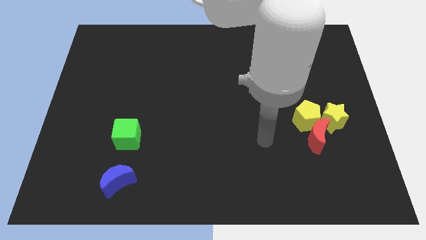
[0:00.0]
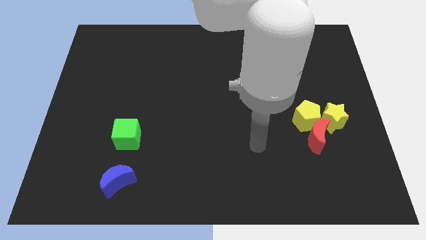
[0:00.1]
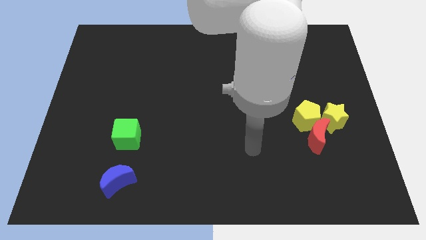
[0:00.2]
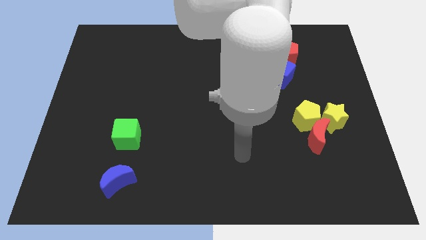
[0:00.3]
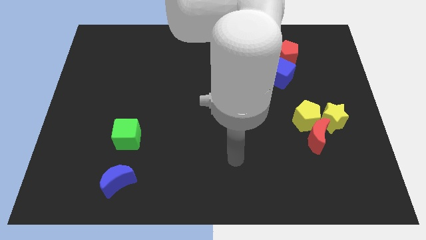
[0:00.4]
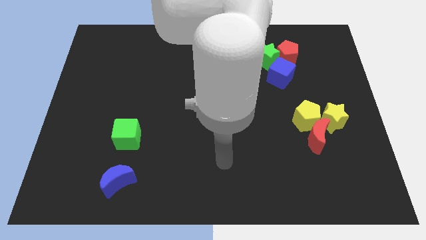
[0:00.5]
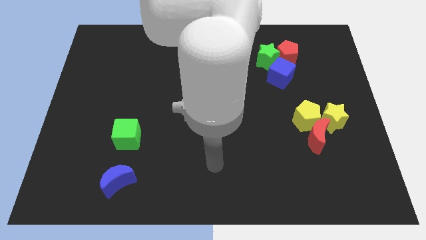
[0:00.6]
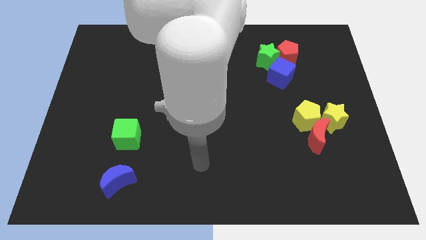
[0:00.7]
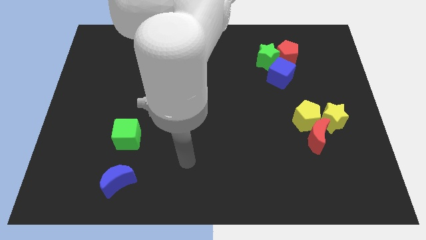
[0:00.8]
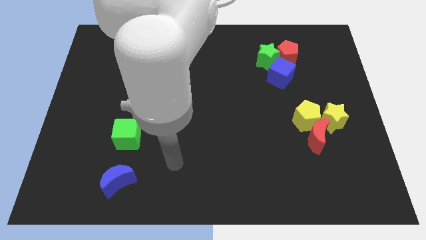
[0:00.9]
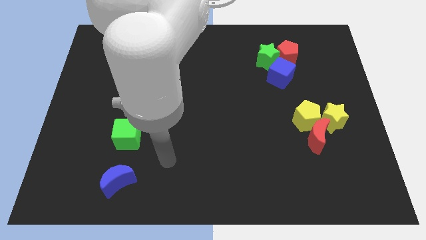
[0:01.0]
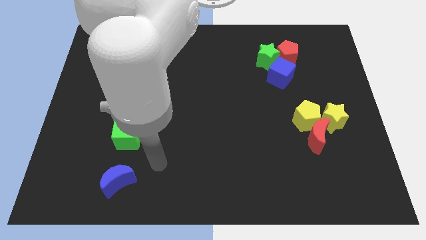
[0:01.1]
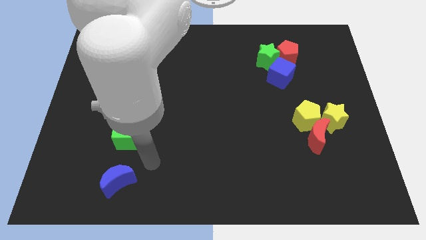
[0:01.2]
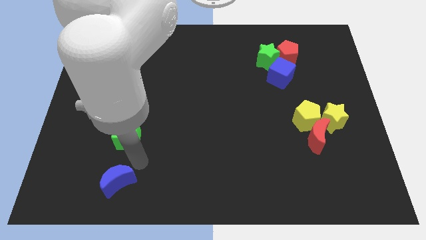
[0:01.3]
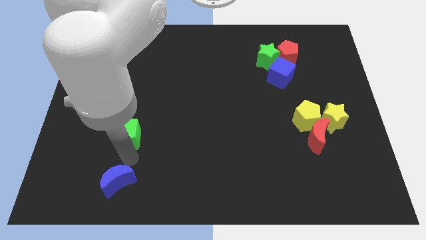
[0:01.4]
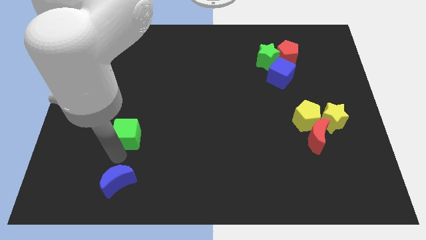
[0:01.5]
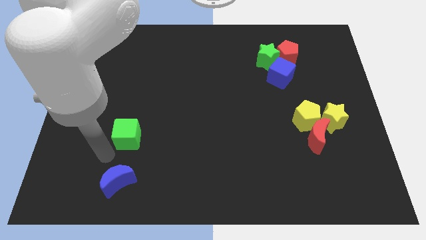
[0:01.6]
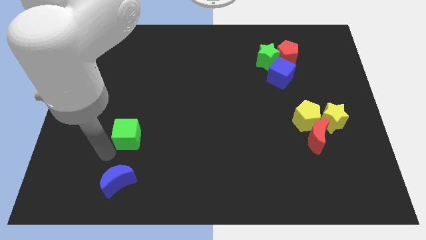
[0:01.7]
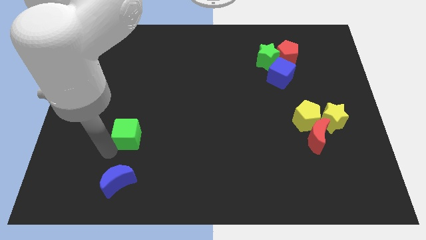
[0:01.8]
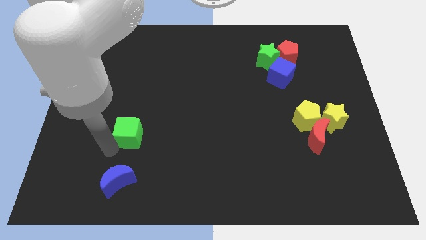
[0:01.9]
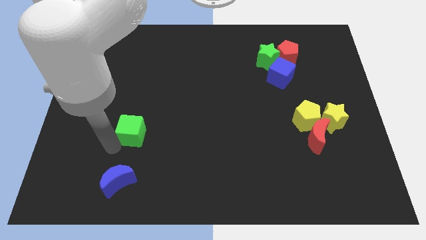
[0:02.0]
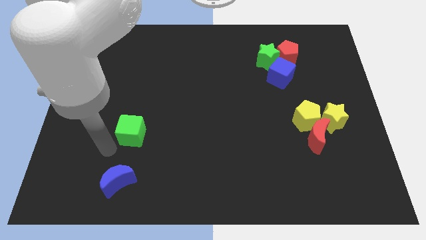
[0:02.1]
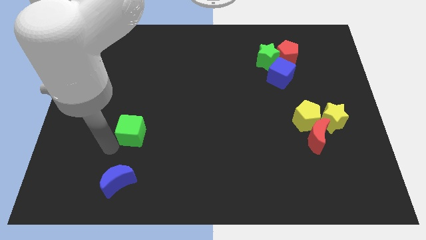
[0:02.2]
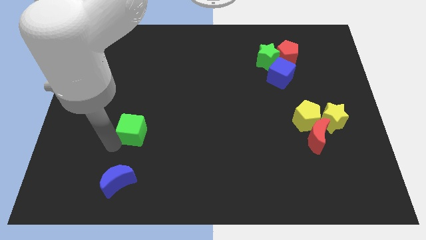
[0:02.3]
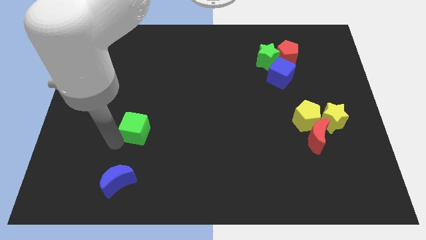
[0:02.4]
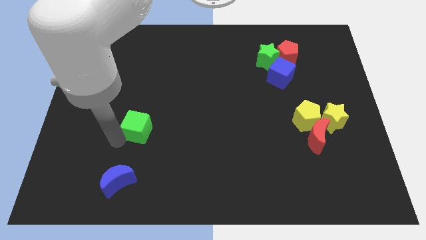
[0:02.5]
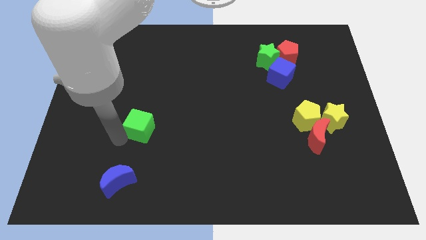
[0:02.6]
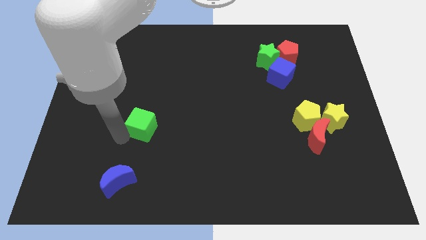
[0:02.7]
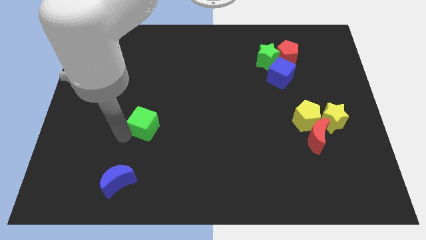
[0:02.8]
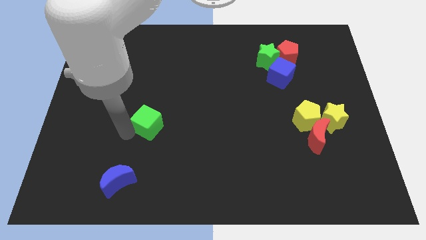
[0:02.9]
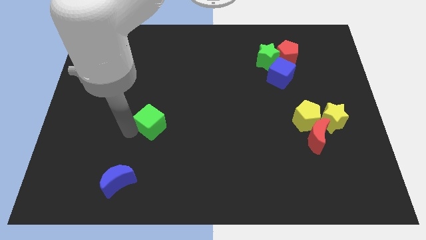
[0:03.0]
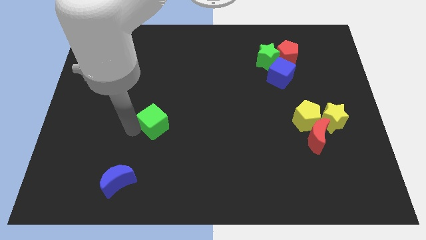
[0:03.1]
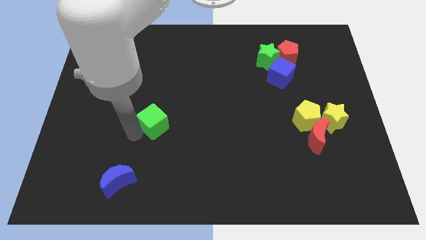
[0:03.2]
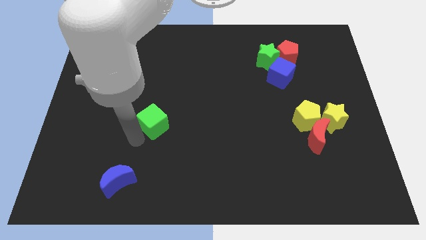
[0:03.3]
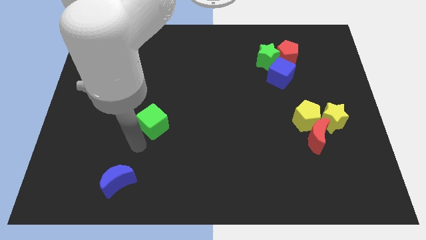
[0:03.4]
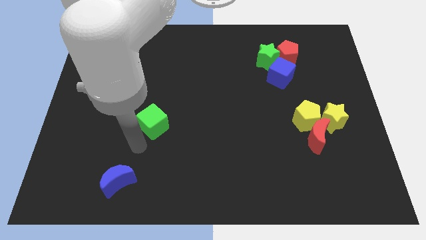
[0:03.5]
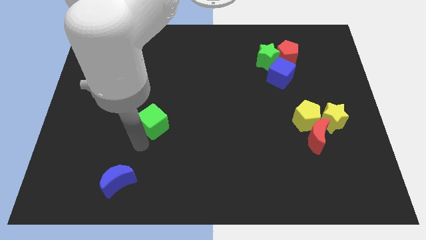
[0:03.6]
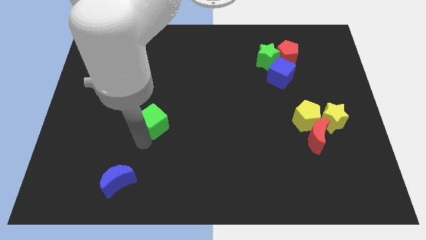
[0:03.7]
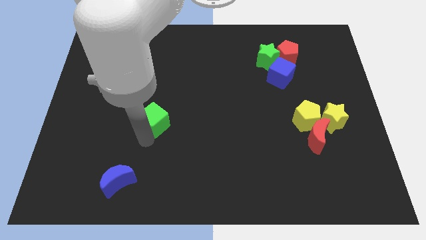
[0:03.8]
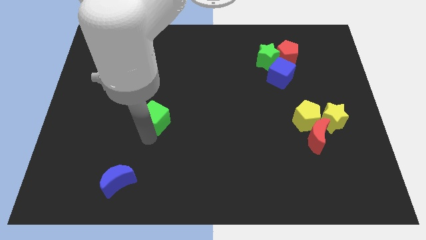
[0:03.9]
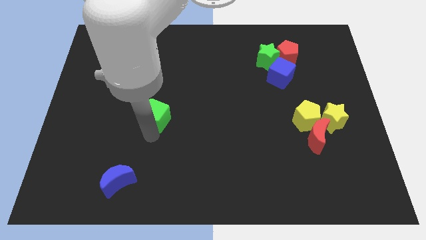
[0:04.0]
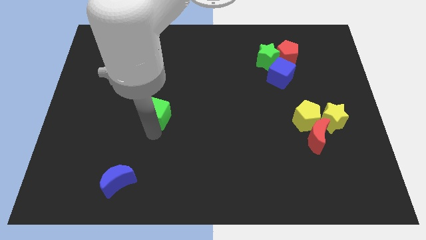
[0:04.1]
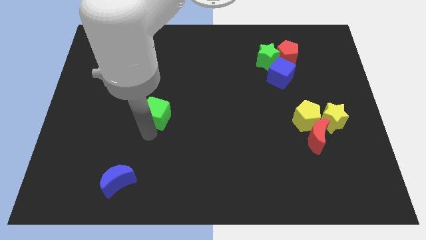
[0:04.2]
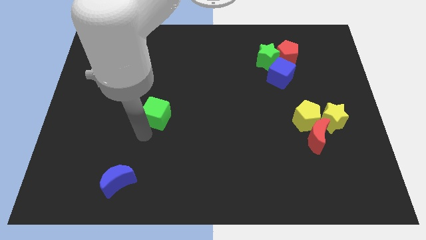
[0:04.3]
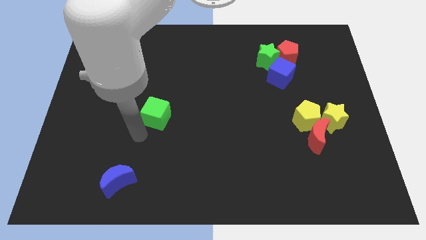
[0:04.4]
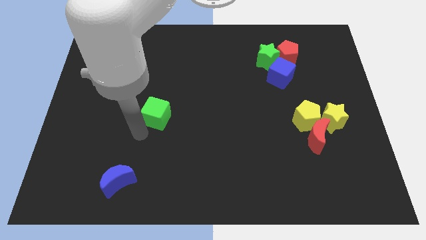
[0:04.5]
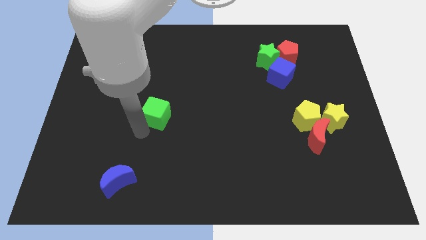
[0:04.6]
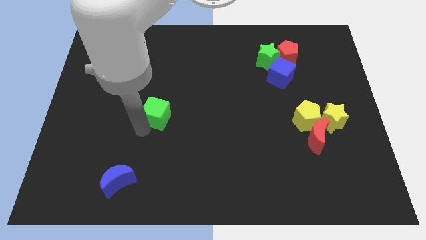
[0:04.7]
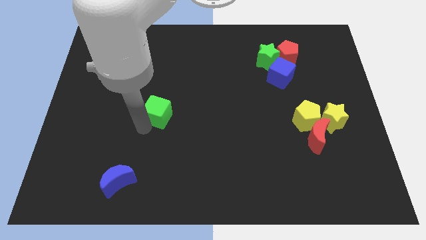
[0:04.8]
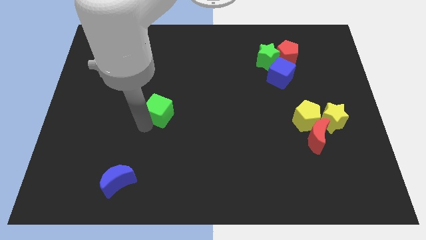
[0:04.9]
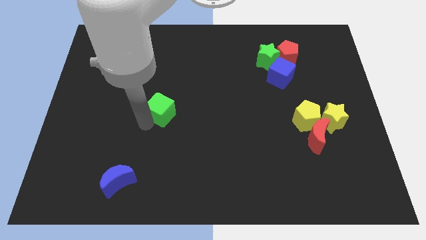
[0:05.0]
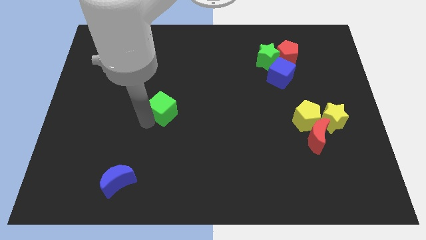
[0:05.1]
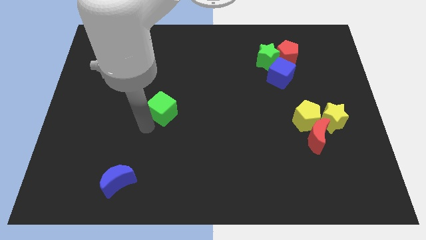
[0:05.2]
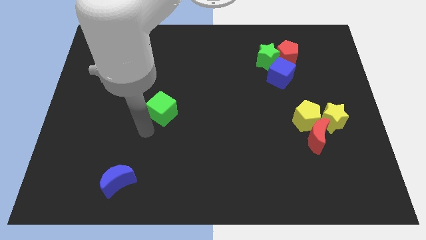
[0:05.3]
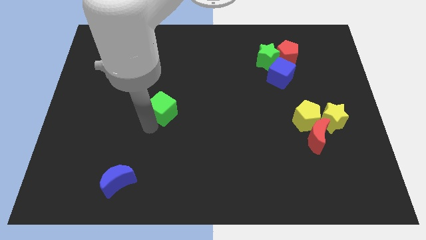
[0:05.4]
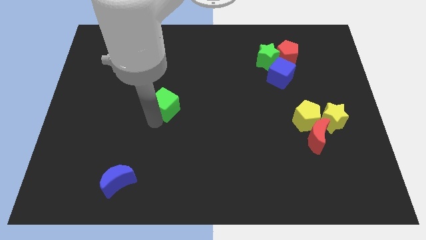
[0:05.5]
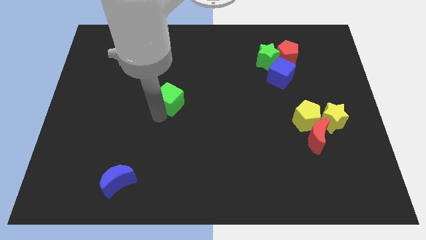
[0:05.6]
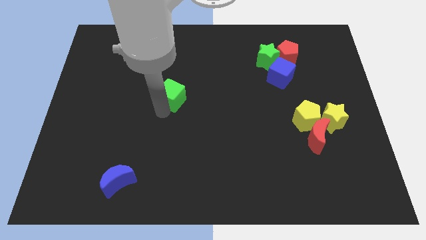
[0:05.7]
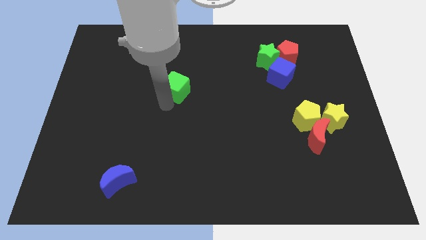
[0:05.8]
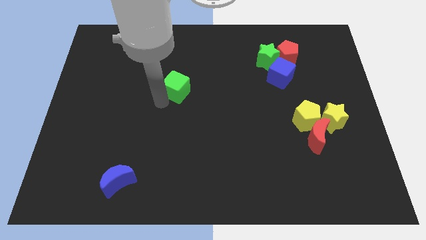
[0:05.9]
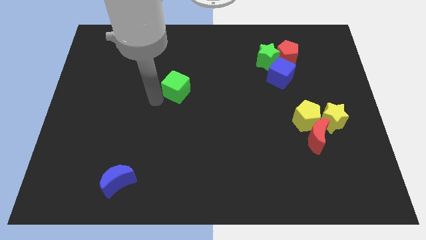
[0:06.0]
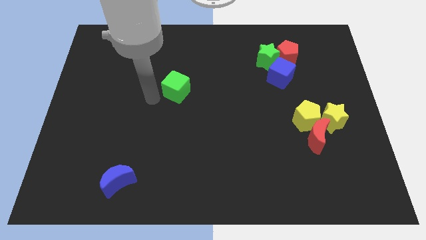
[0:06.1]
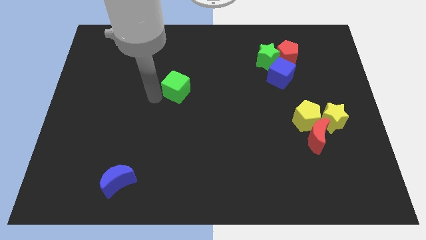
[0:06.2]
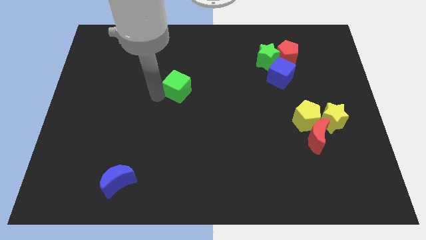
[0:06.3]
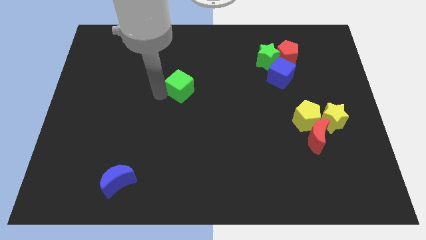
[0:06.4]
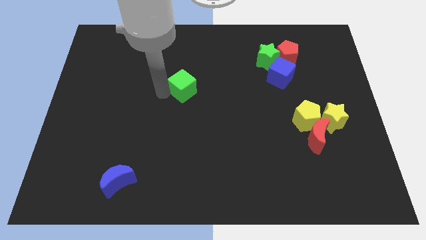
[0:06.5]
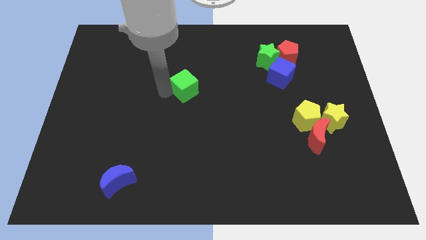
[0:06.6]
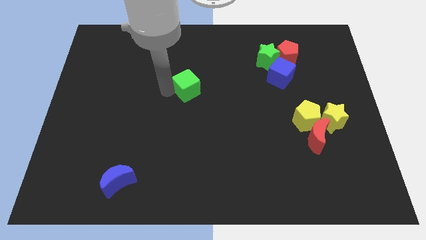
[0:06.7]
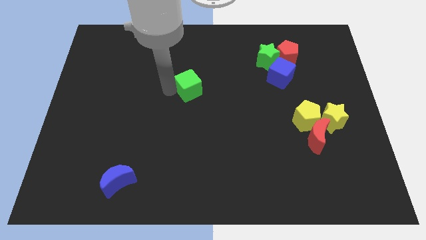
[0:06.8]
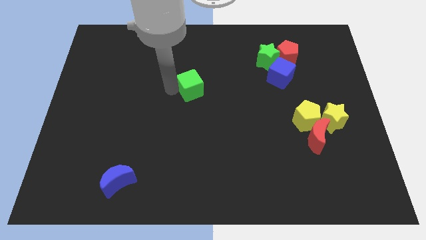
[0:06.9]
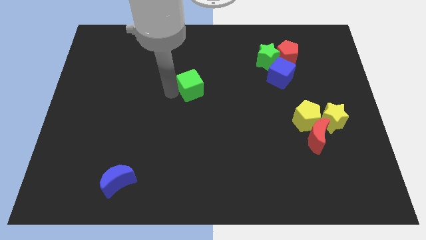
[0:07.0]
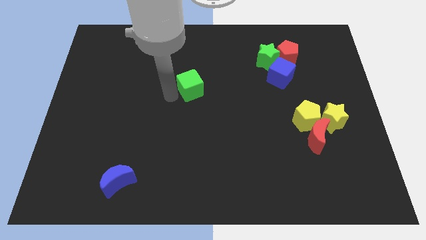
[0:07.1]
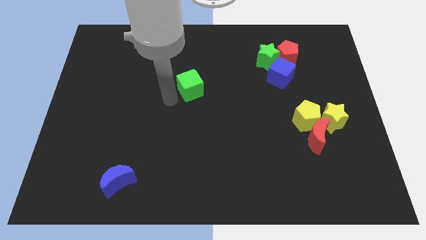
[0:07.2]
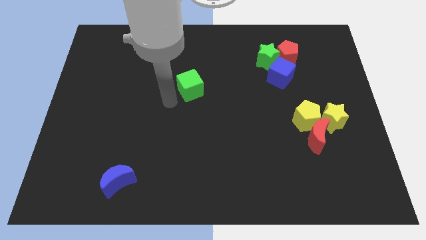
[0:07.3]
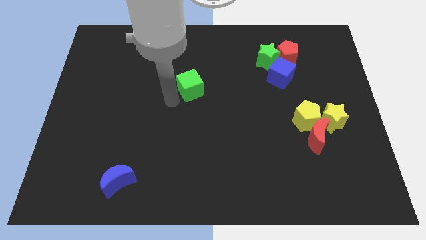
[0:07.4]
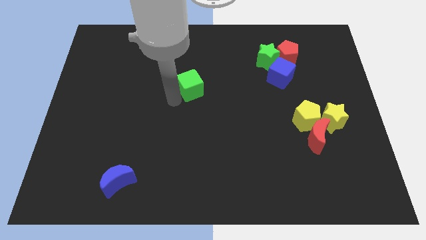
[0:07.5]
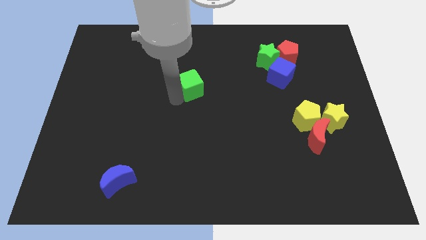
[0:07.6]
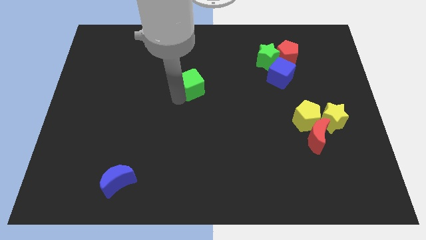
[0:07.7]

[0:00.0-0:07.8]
slide the green cube diagonally upwards and right
